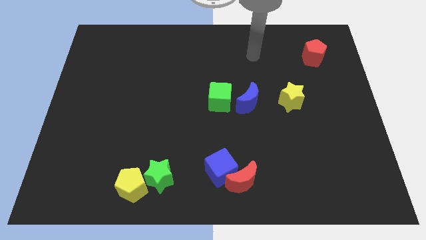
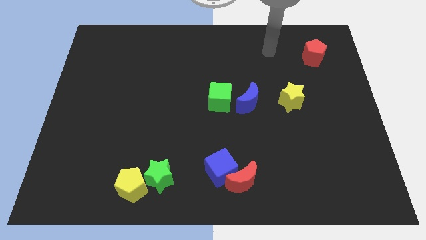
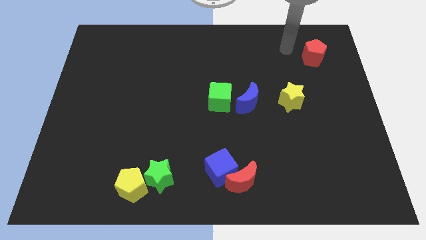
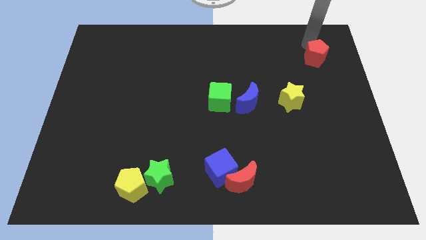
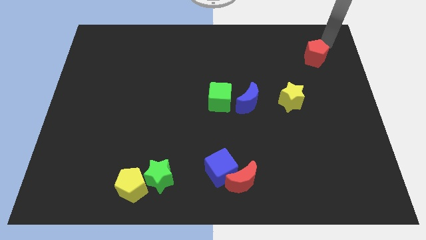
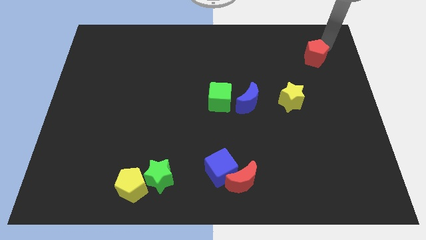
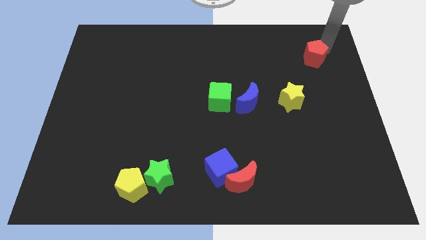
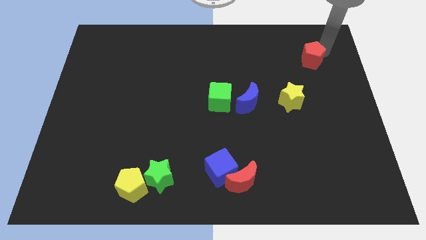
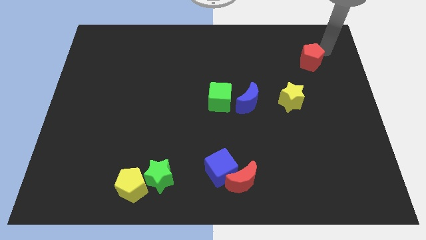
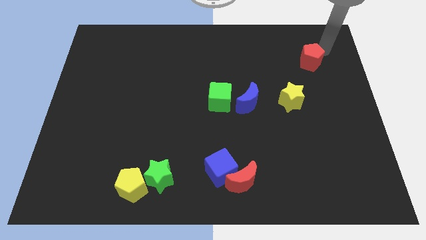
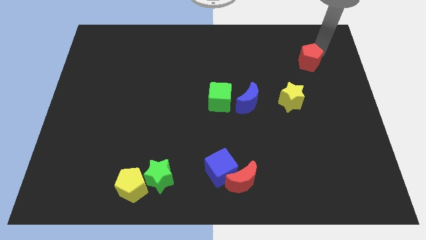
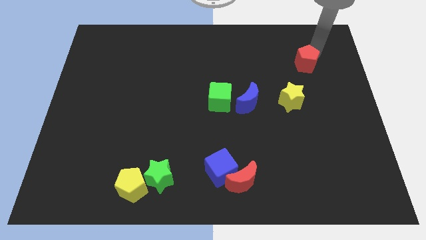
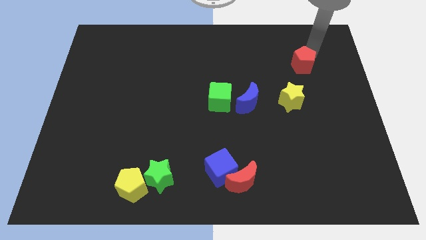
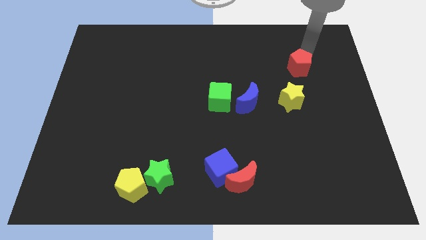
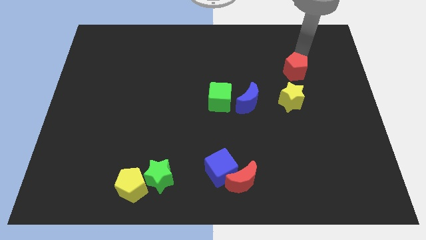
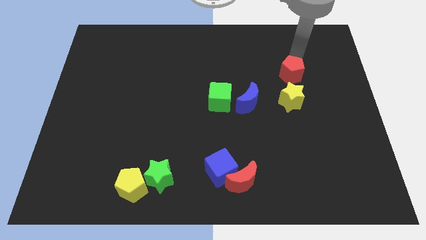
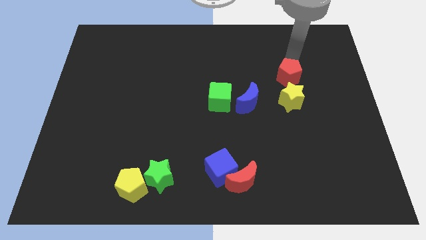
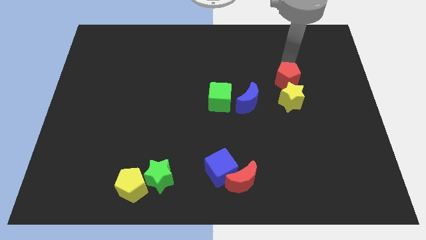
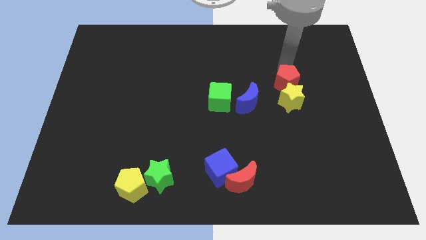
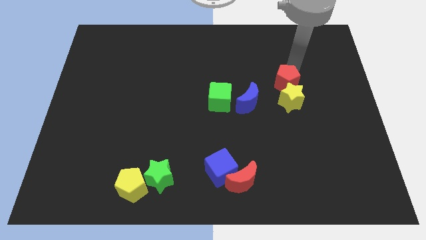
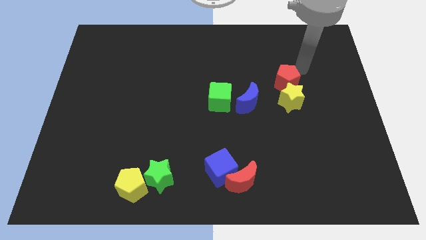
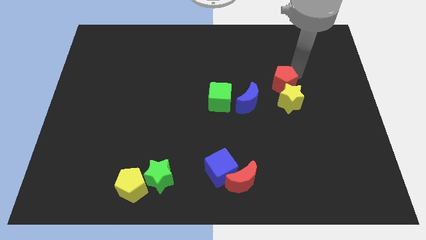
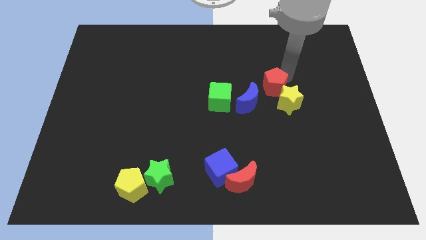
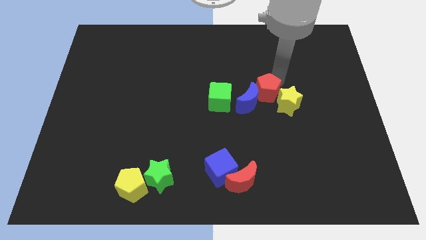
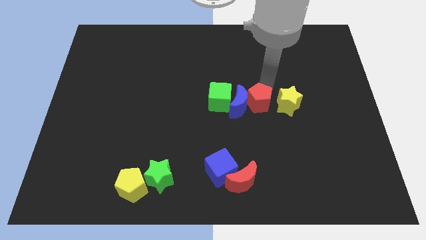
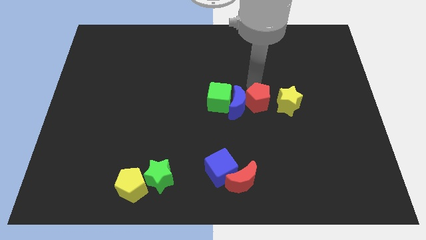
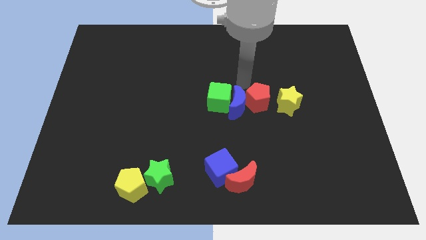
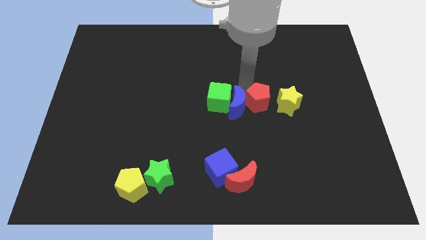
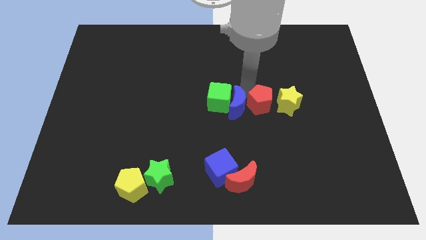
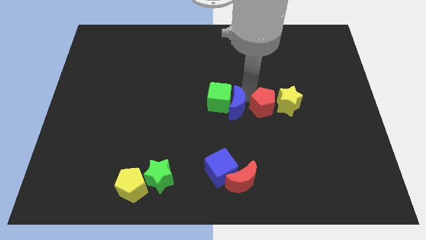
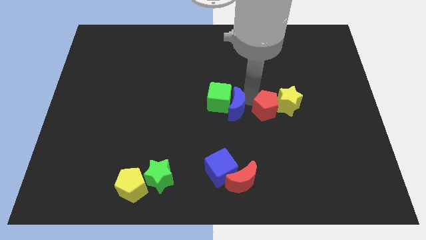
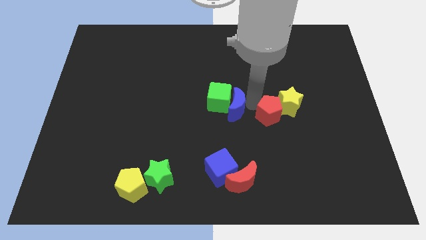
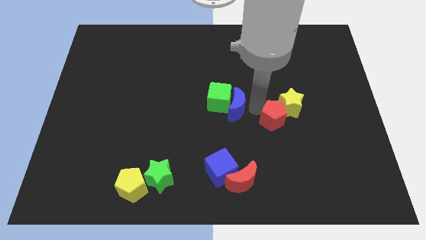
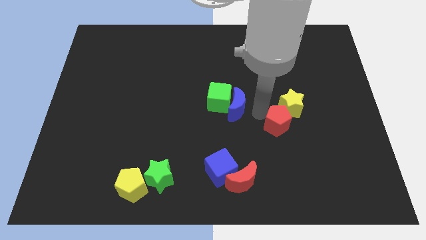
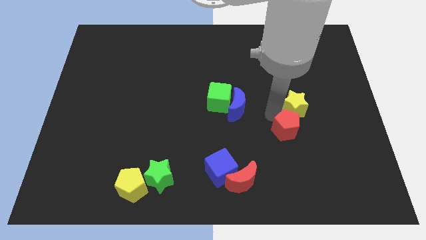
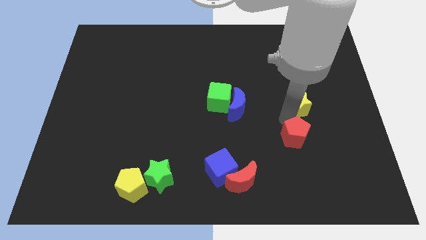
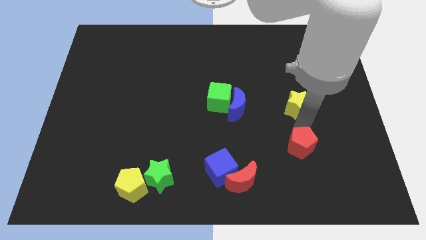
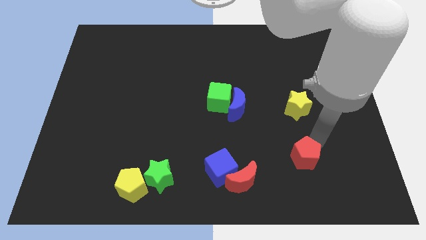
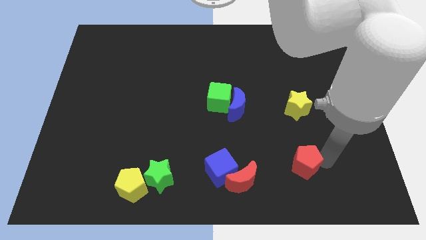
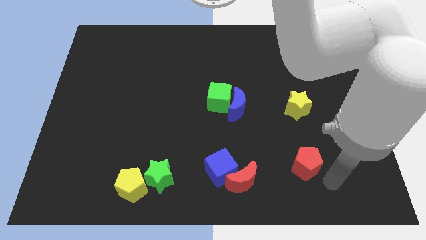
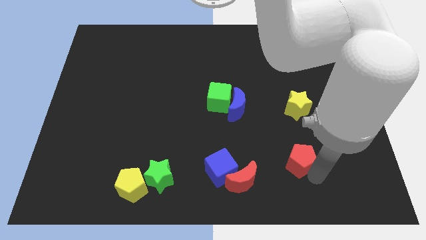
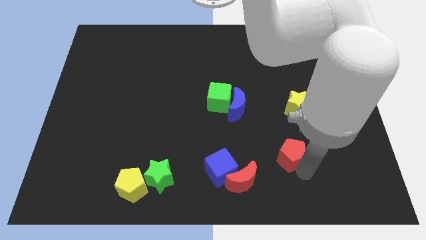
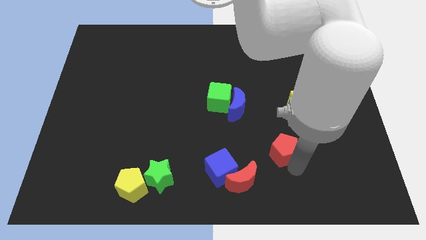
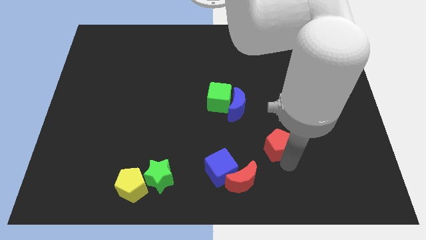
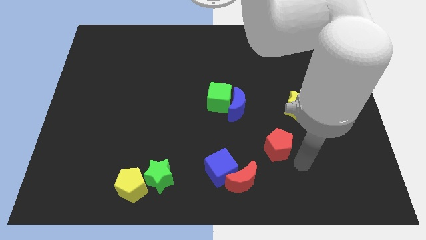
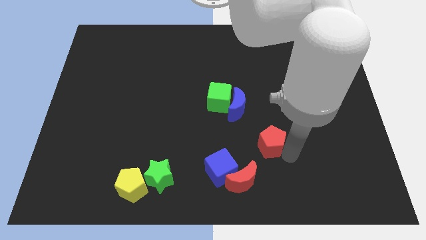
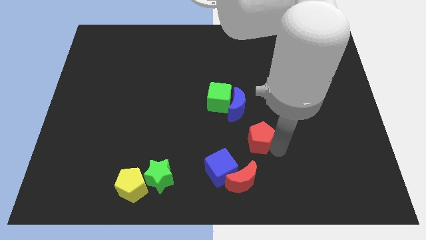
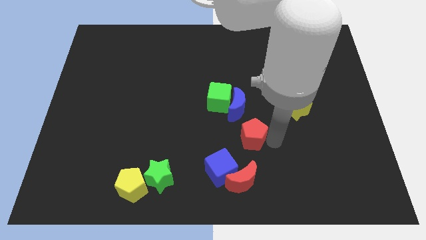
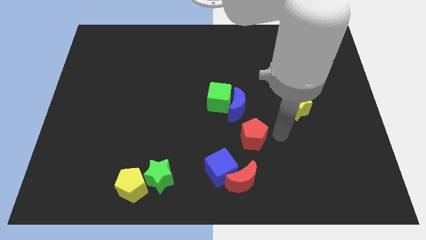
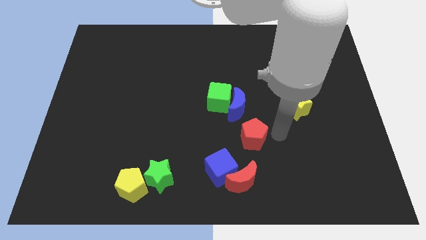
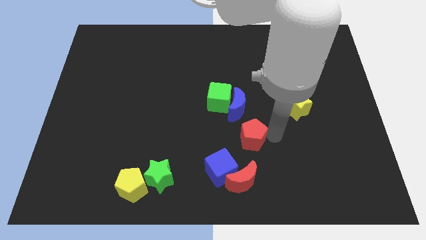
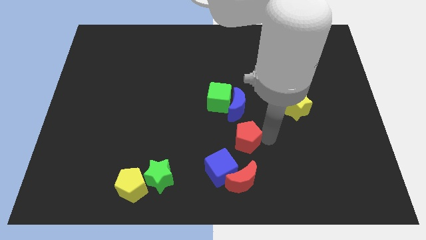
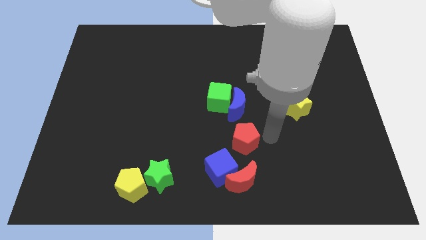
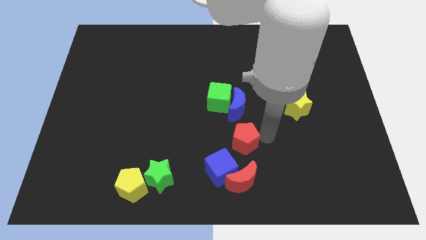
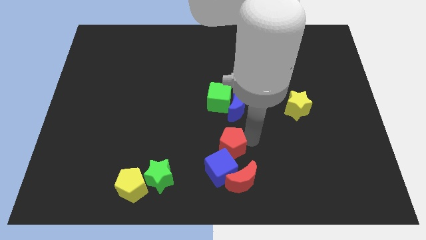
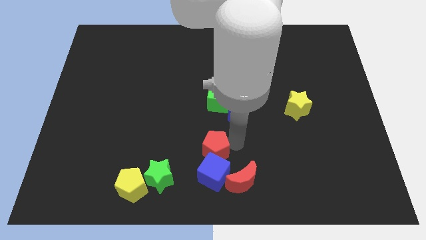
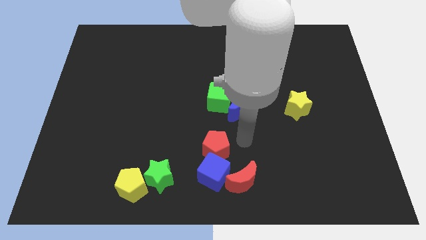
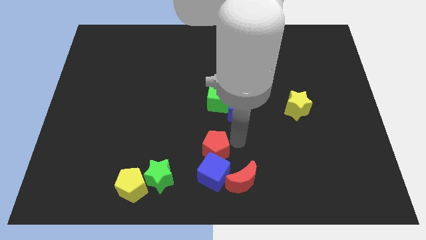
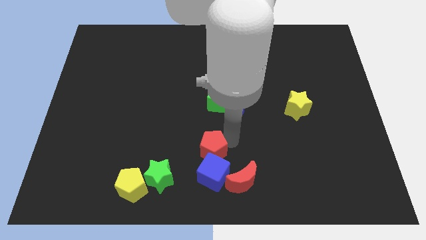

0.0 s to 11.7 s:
put the red pentagon diagonally up and to the right of the green star

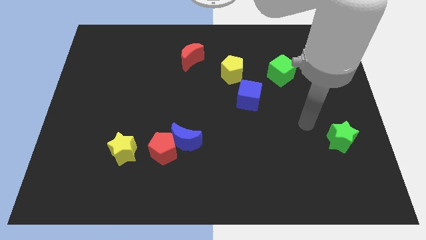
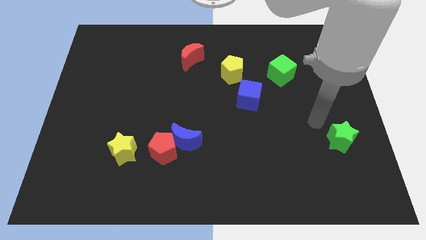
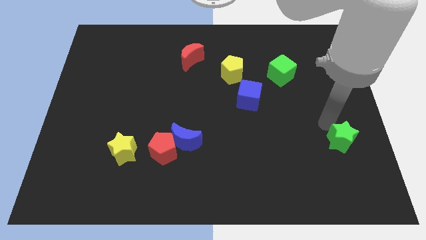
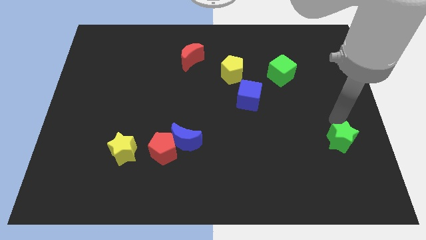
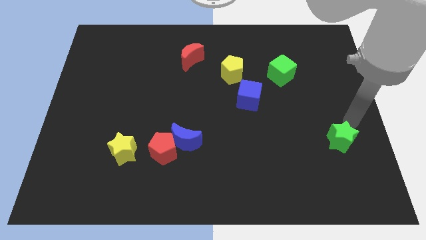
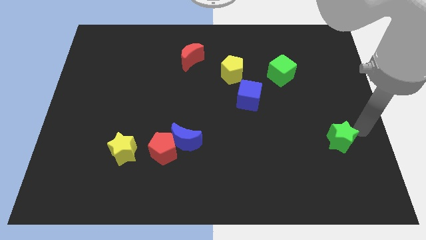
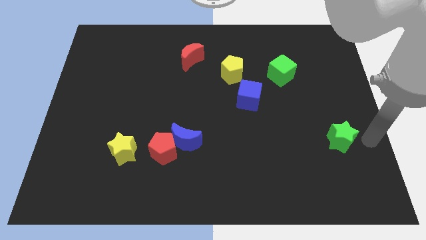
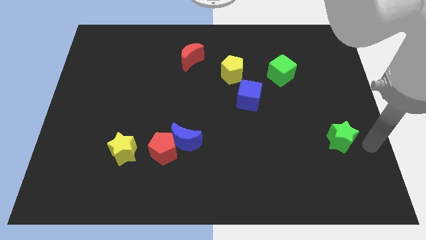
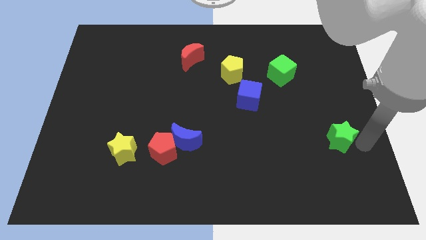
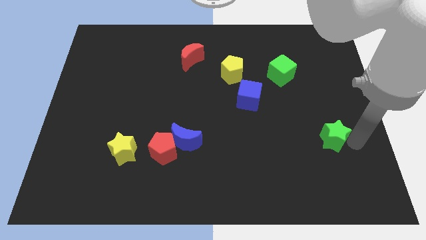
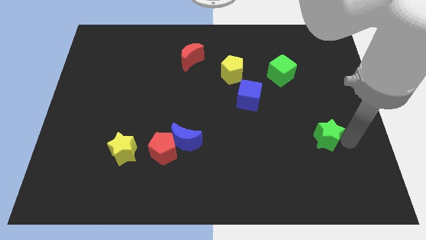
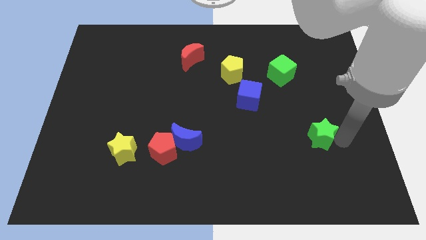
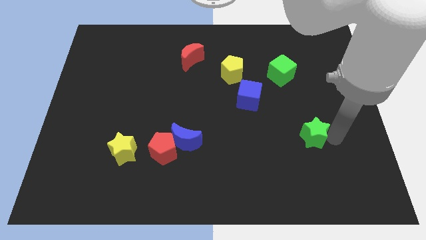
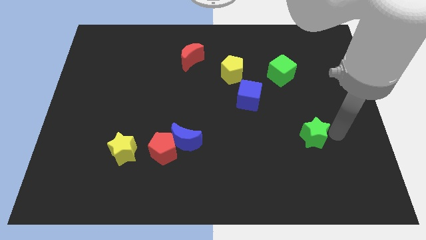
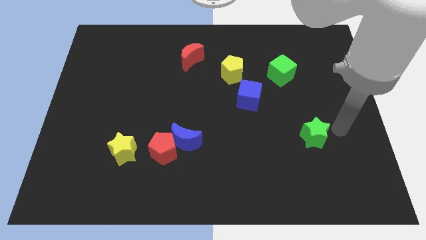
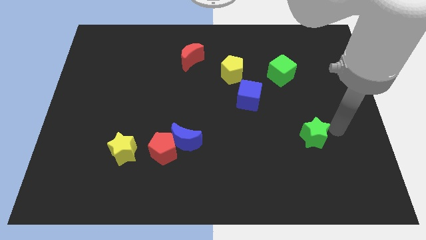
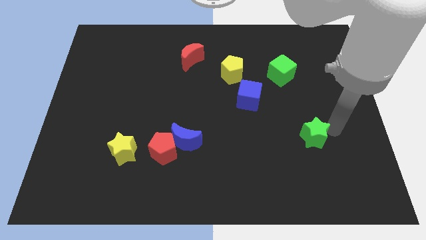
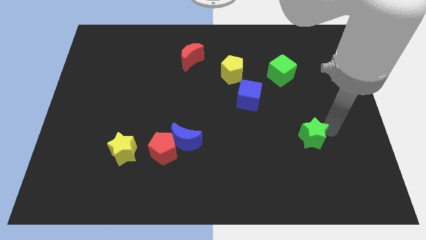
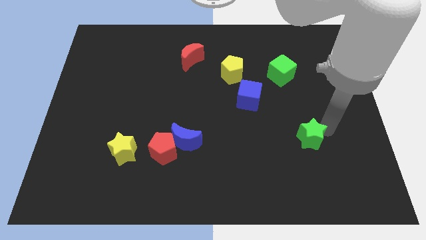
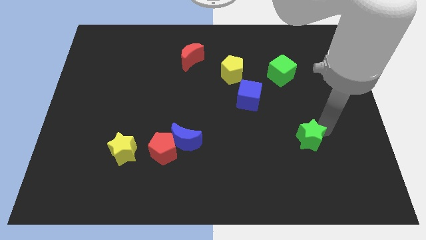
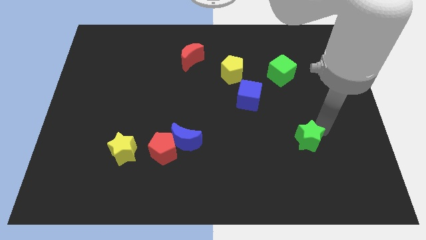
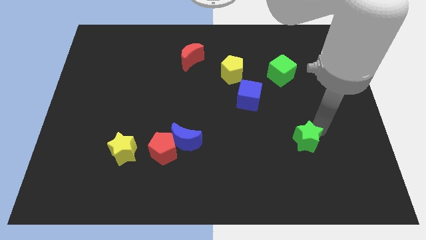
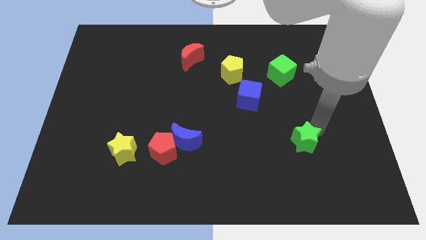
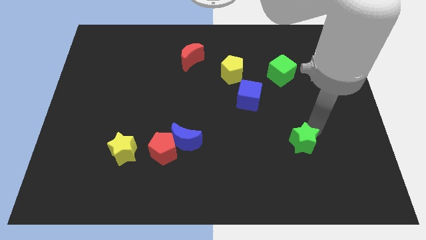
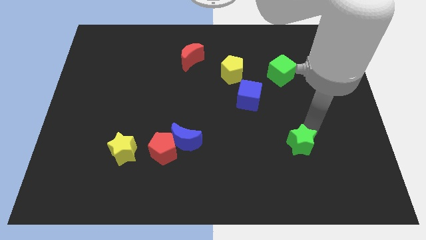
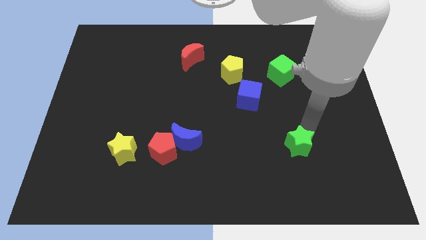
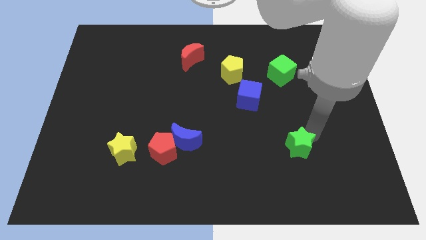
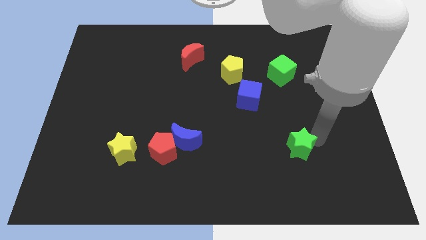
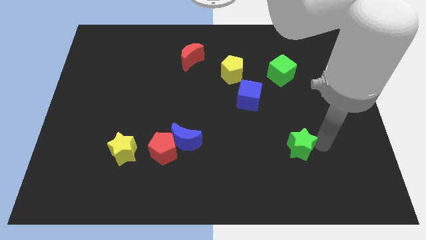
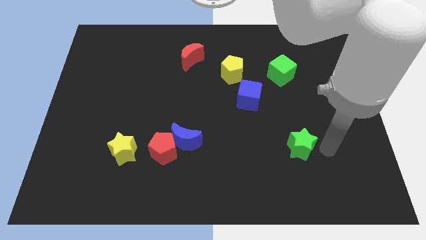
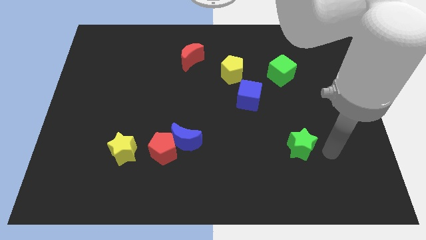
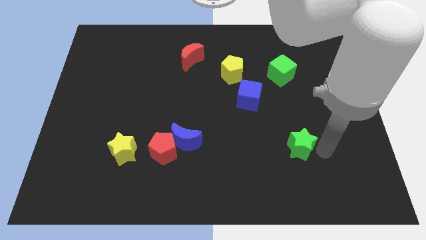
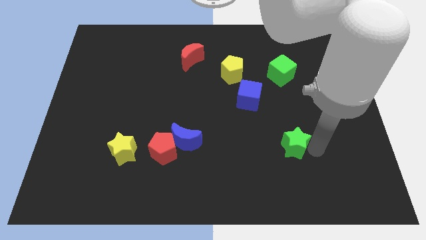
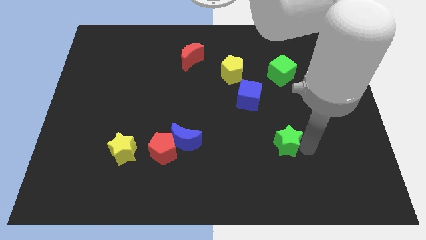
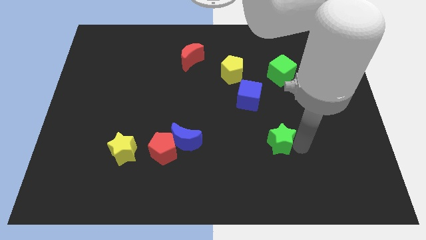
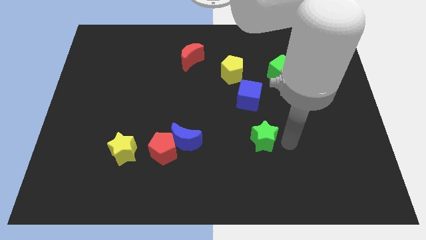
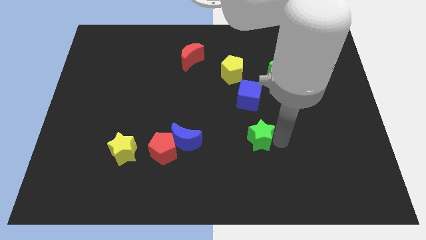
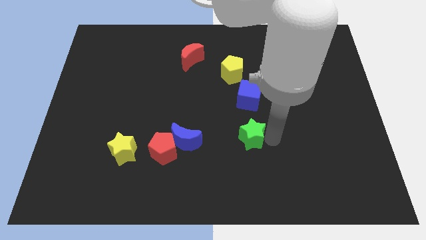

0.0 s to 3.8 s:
move the green star to the right of the blue moon
